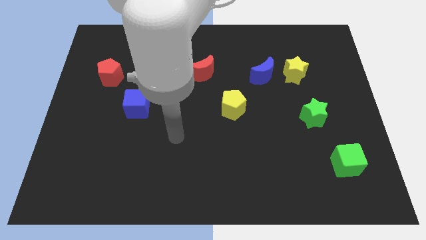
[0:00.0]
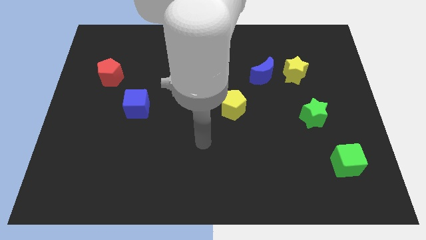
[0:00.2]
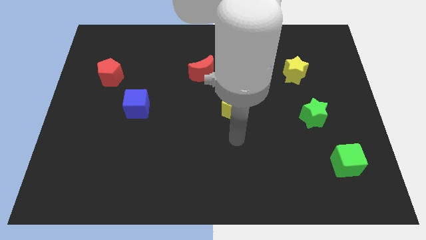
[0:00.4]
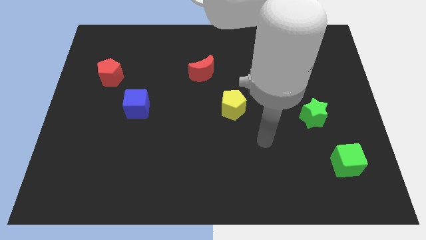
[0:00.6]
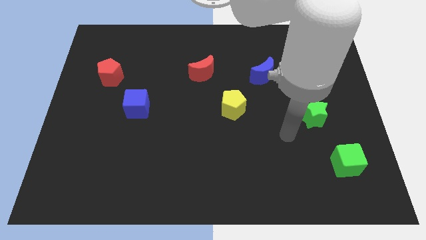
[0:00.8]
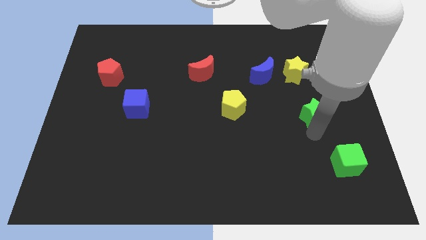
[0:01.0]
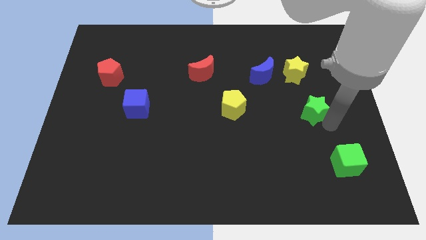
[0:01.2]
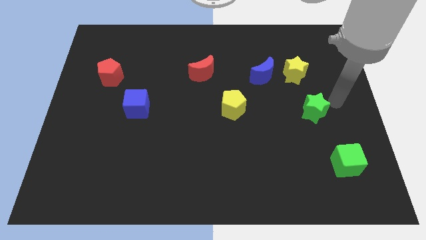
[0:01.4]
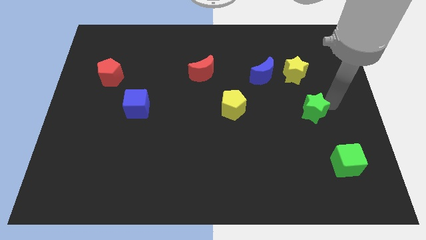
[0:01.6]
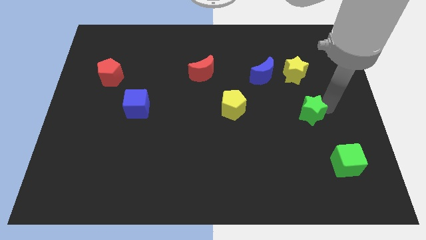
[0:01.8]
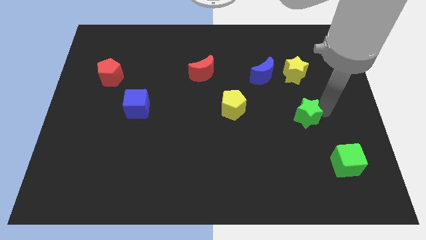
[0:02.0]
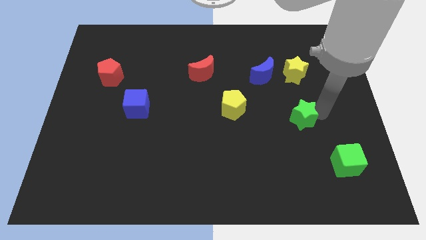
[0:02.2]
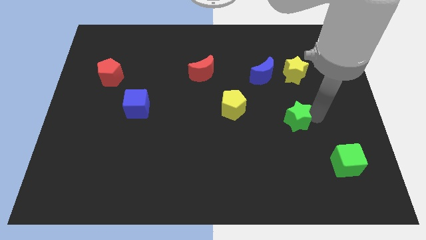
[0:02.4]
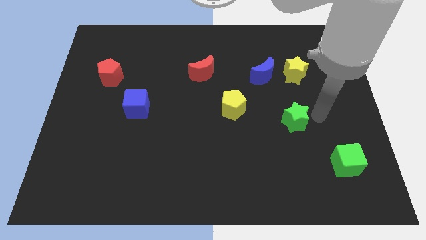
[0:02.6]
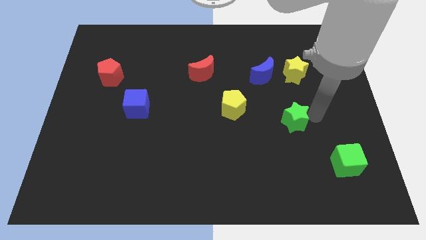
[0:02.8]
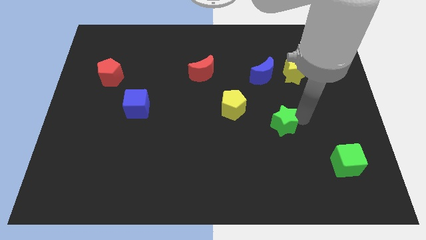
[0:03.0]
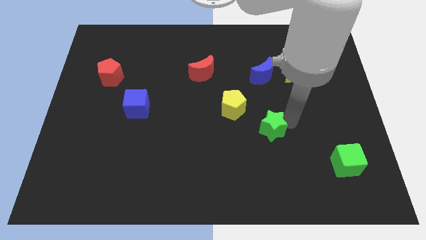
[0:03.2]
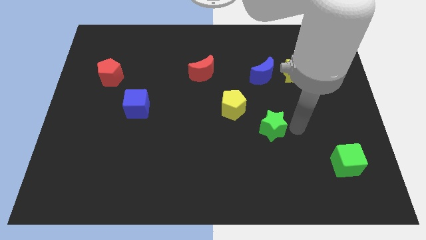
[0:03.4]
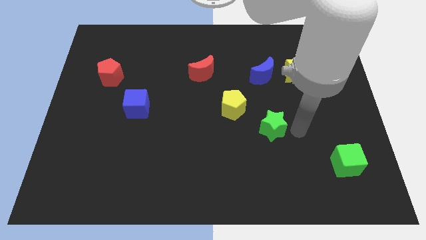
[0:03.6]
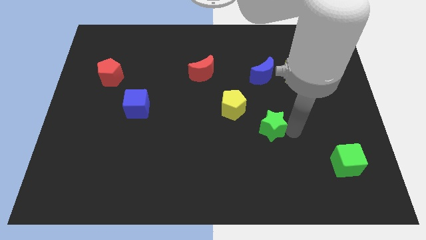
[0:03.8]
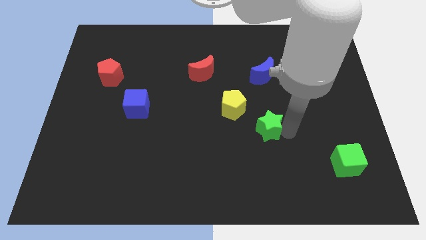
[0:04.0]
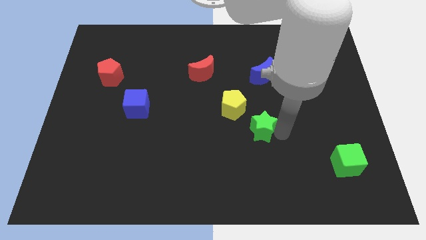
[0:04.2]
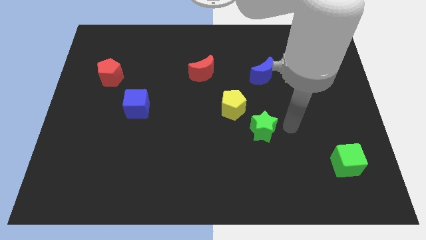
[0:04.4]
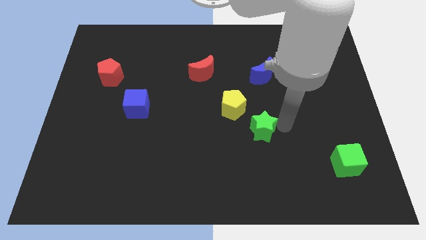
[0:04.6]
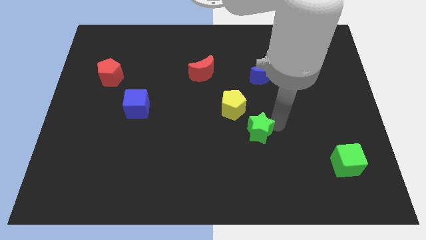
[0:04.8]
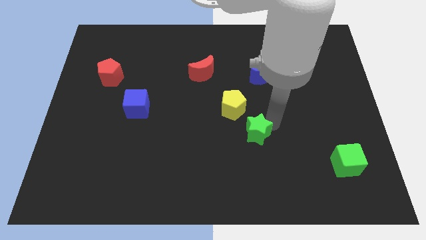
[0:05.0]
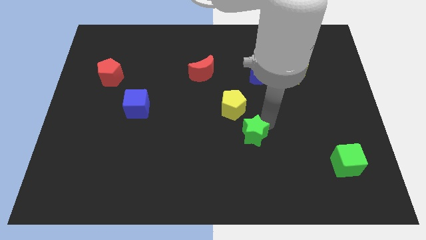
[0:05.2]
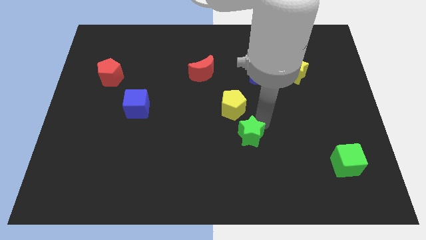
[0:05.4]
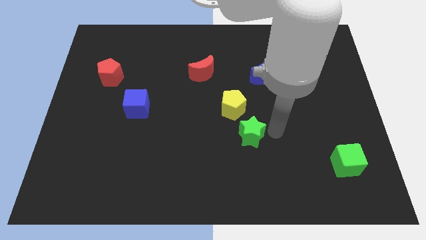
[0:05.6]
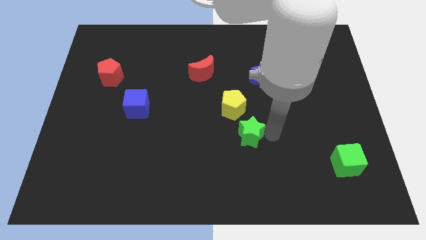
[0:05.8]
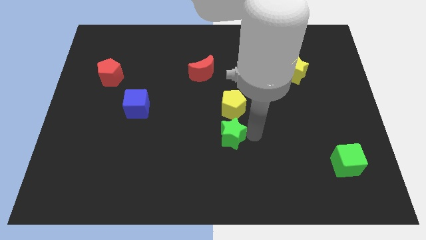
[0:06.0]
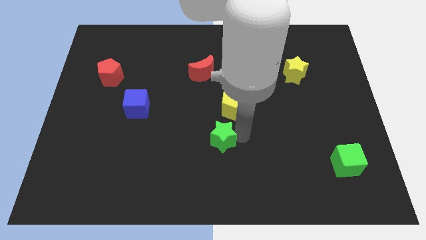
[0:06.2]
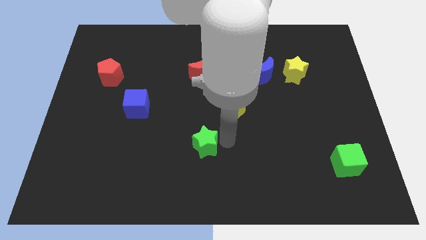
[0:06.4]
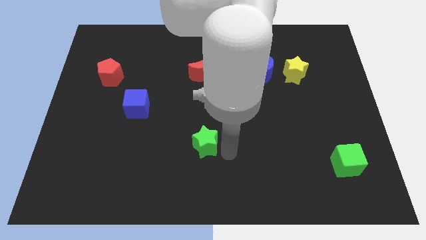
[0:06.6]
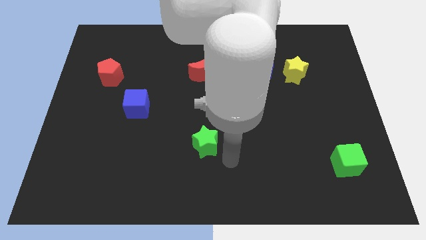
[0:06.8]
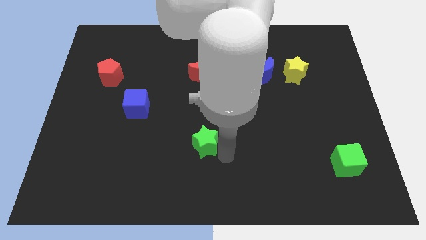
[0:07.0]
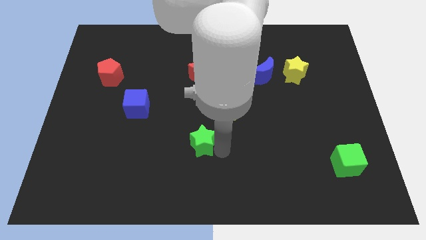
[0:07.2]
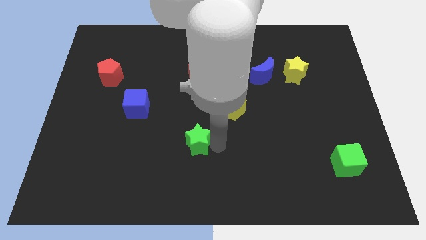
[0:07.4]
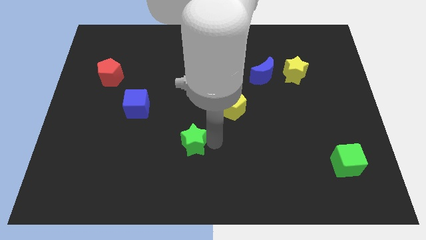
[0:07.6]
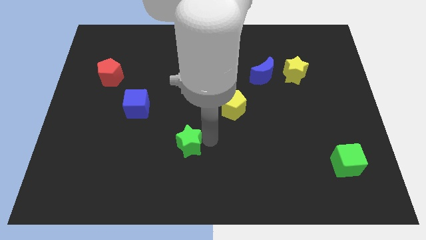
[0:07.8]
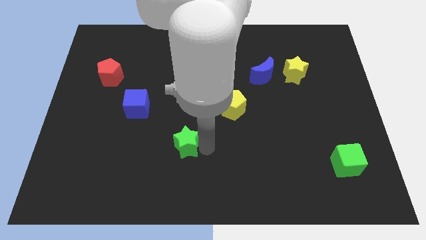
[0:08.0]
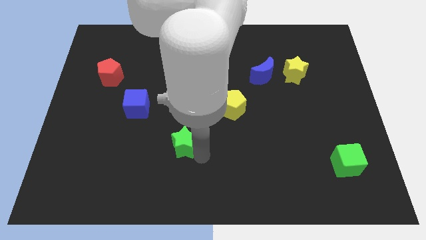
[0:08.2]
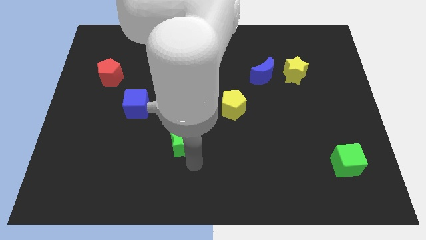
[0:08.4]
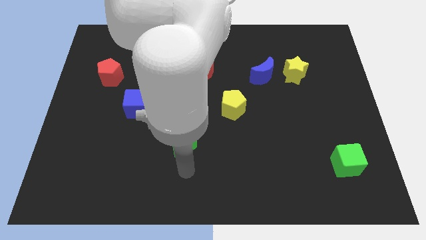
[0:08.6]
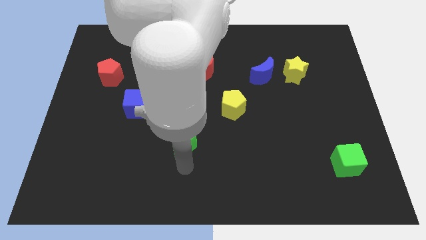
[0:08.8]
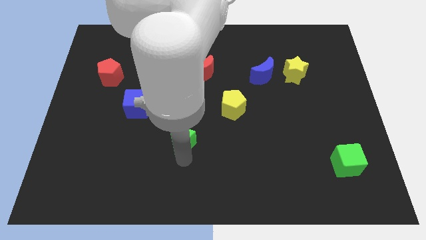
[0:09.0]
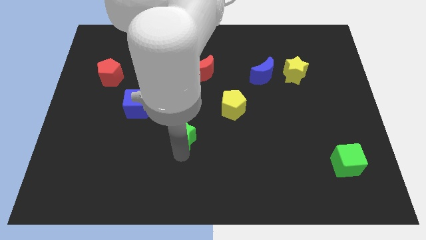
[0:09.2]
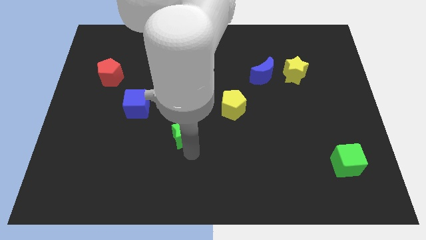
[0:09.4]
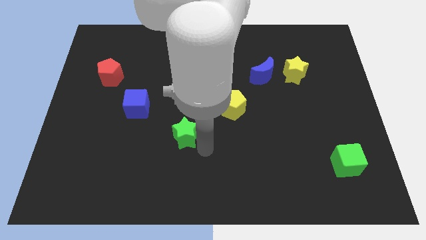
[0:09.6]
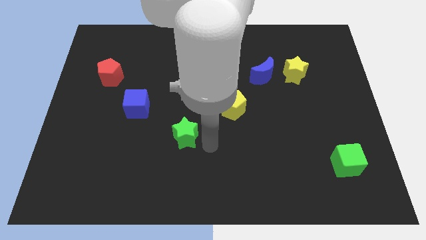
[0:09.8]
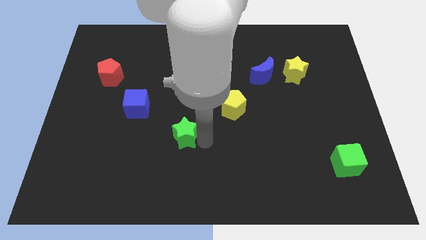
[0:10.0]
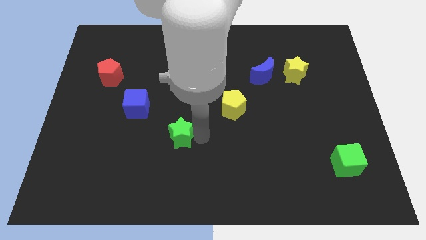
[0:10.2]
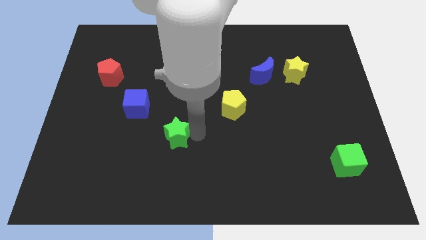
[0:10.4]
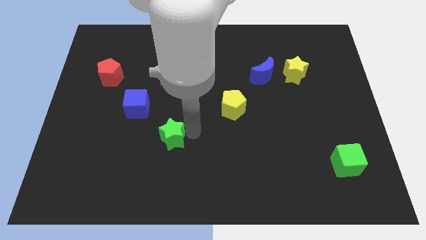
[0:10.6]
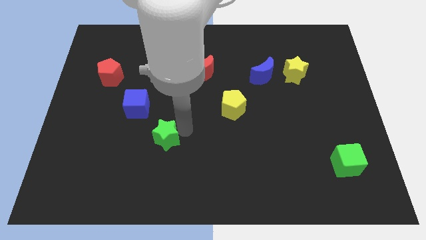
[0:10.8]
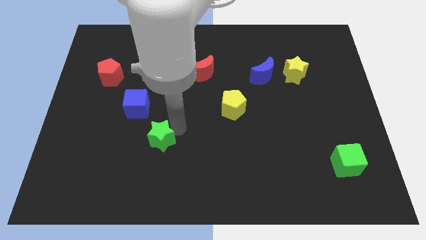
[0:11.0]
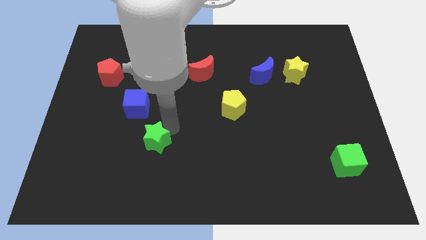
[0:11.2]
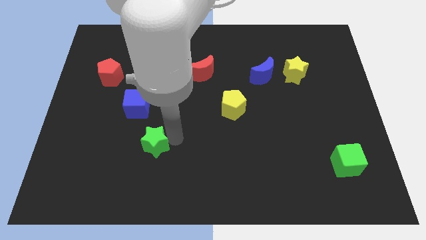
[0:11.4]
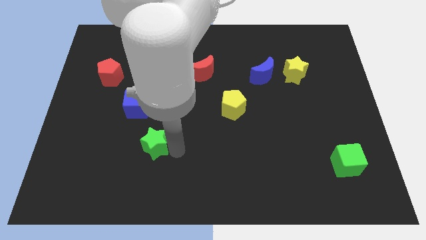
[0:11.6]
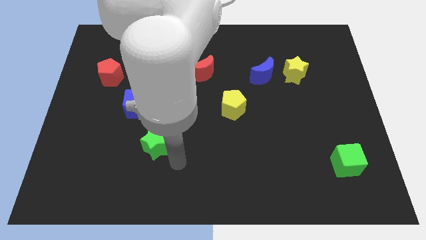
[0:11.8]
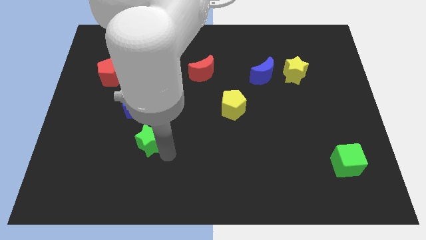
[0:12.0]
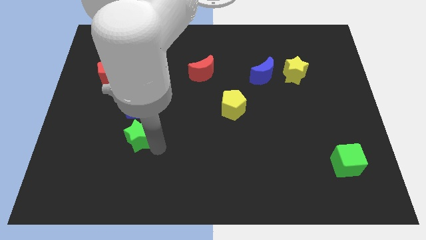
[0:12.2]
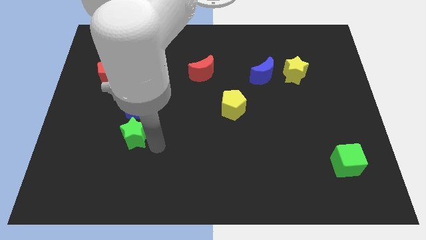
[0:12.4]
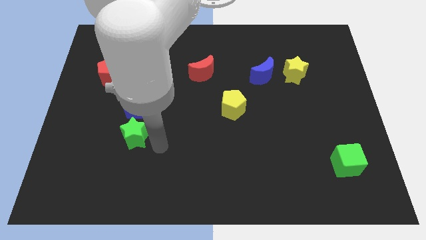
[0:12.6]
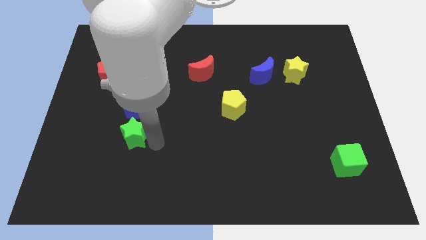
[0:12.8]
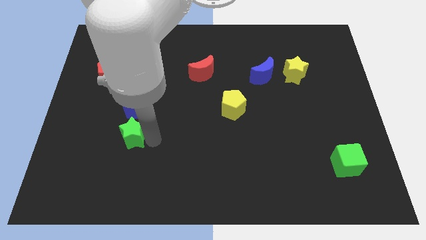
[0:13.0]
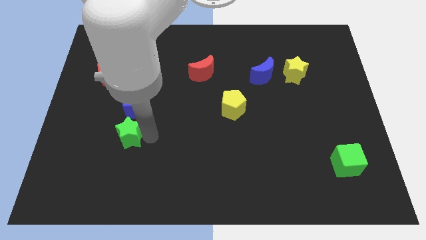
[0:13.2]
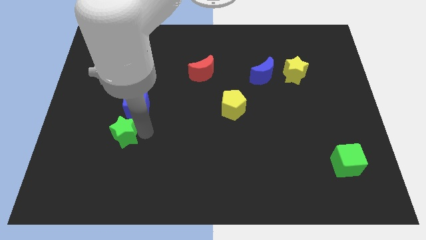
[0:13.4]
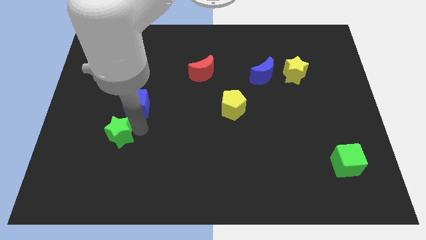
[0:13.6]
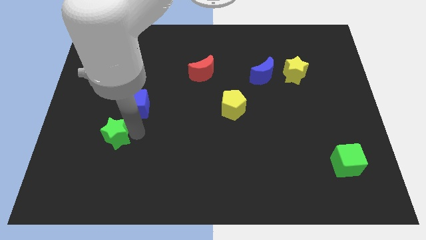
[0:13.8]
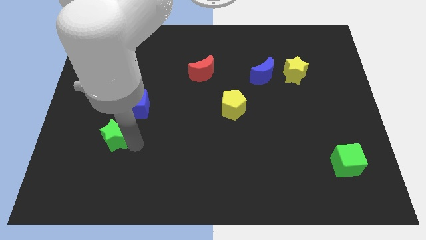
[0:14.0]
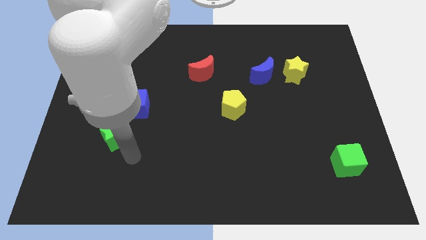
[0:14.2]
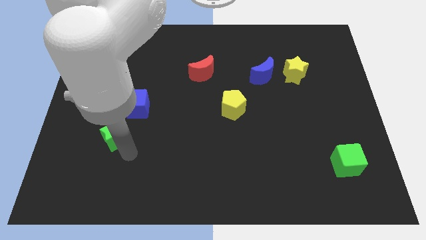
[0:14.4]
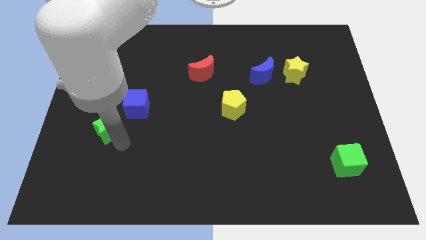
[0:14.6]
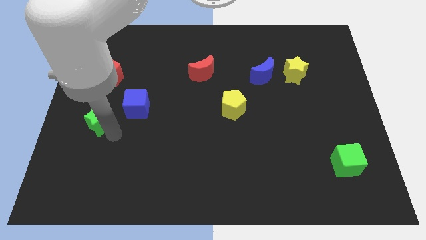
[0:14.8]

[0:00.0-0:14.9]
slide the green star just left of the blue cube
